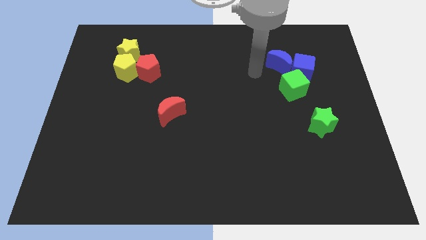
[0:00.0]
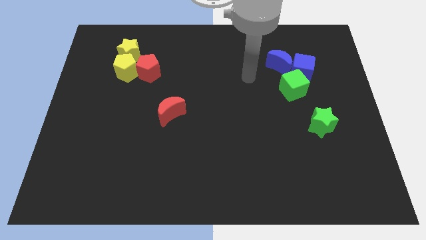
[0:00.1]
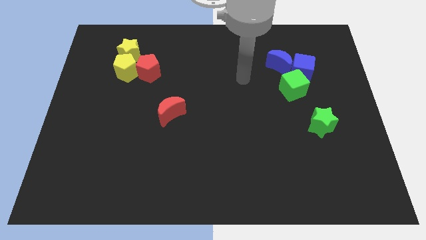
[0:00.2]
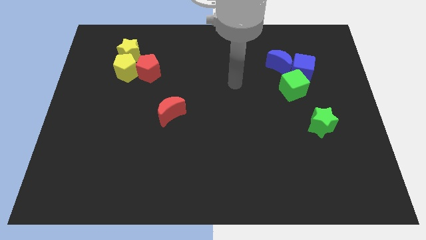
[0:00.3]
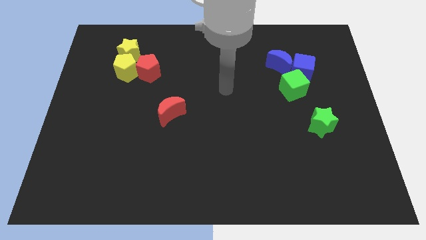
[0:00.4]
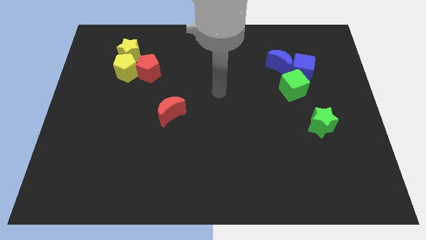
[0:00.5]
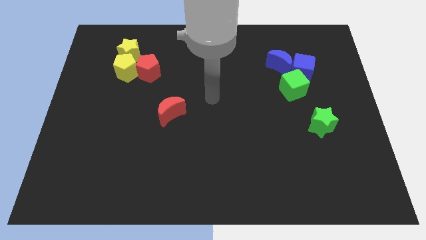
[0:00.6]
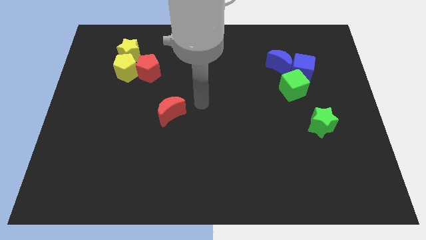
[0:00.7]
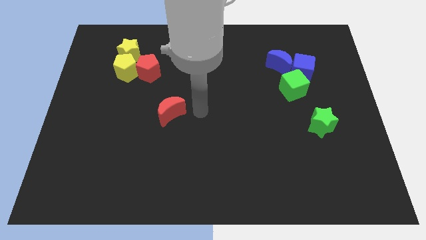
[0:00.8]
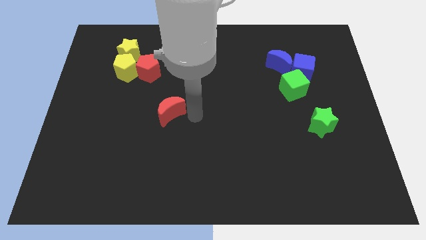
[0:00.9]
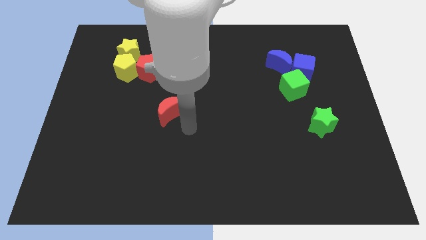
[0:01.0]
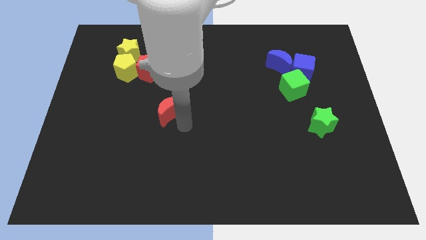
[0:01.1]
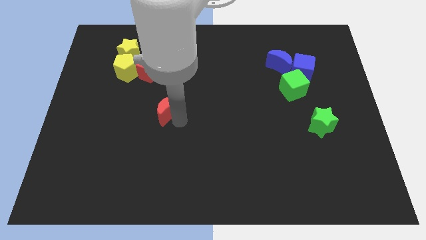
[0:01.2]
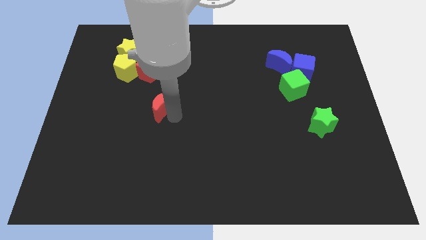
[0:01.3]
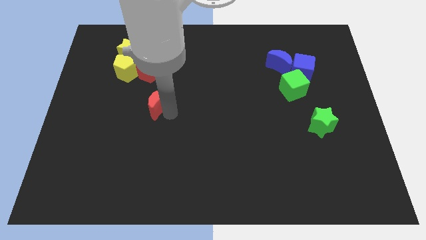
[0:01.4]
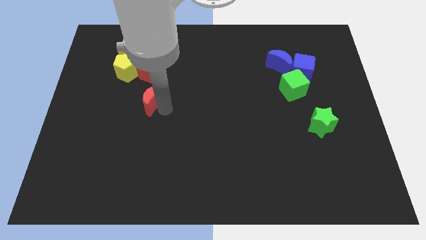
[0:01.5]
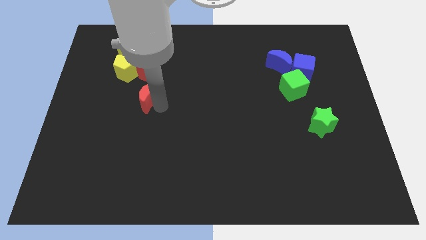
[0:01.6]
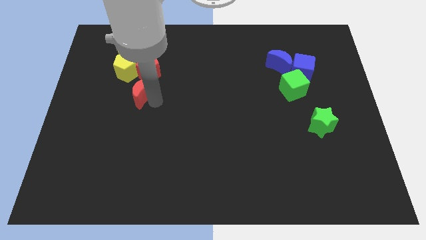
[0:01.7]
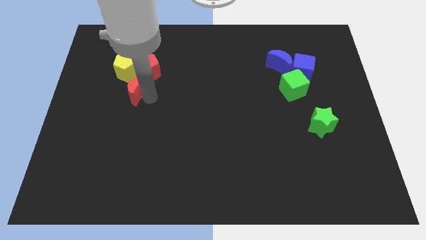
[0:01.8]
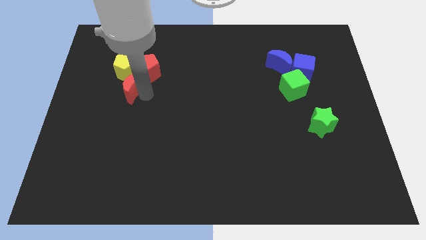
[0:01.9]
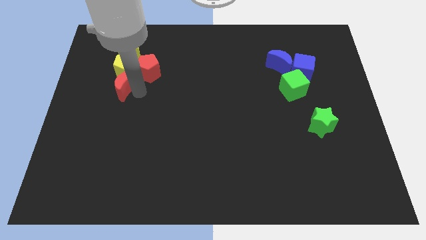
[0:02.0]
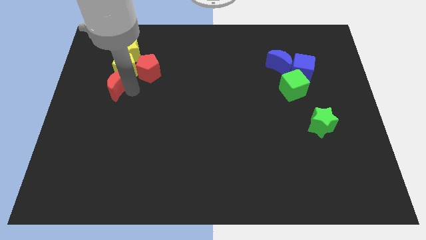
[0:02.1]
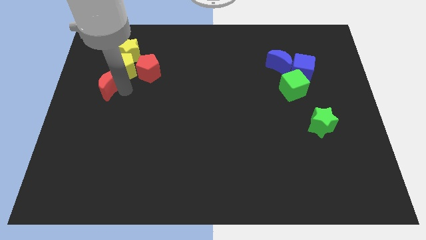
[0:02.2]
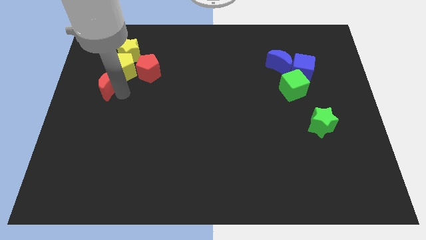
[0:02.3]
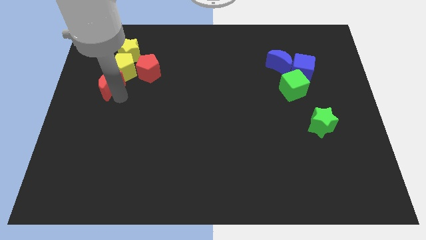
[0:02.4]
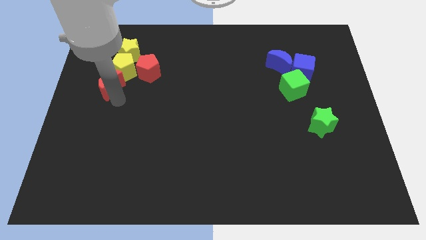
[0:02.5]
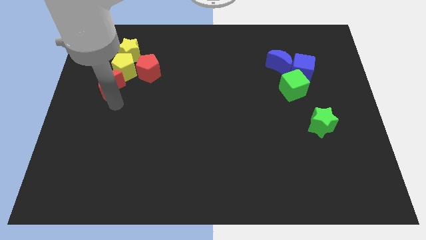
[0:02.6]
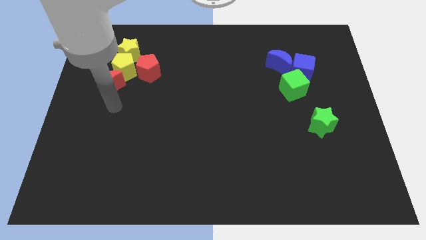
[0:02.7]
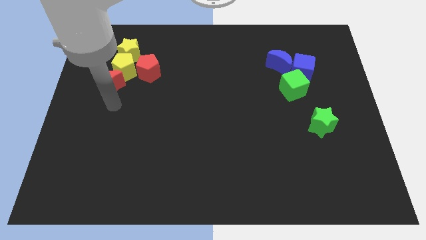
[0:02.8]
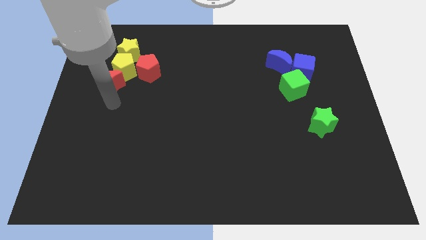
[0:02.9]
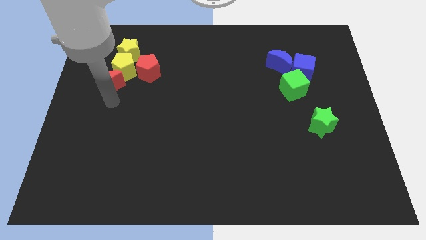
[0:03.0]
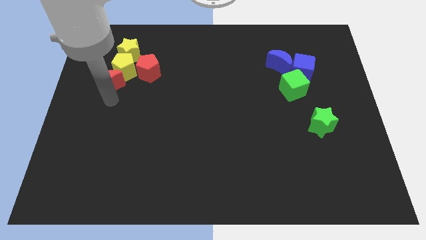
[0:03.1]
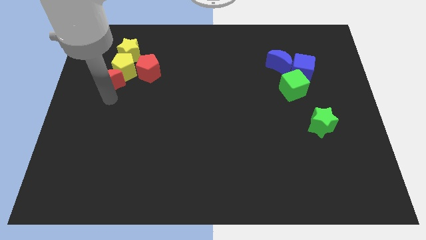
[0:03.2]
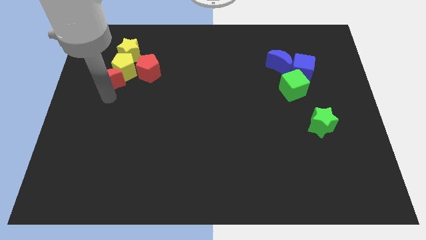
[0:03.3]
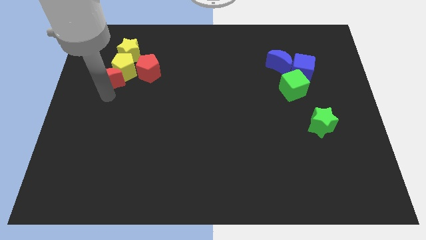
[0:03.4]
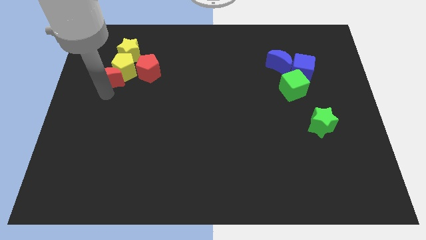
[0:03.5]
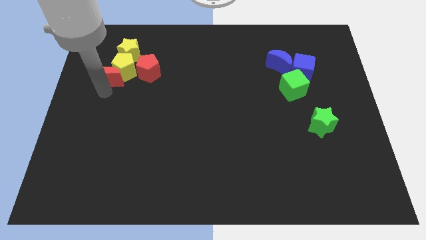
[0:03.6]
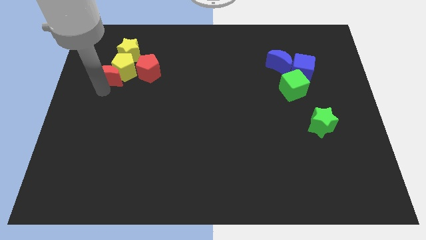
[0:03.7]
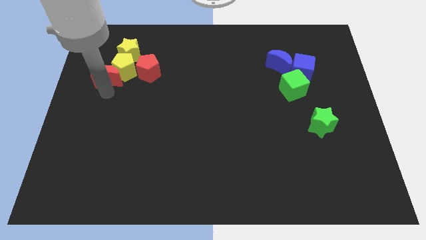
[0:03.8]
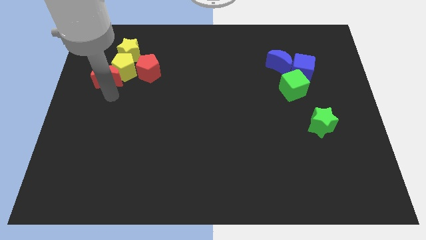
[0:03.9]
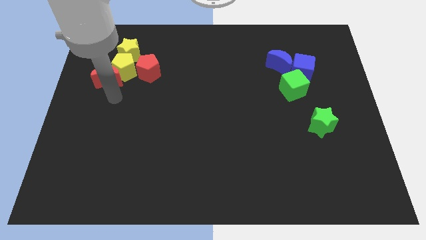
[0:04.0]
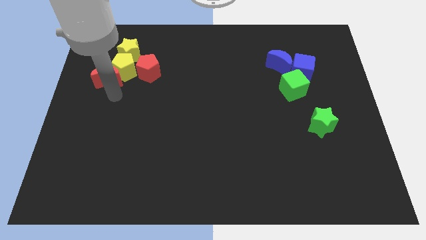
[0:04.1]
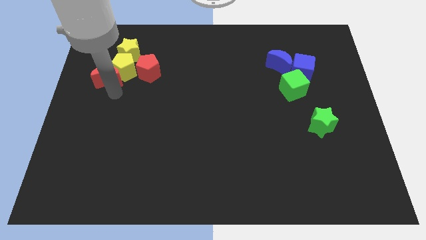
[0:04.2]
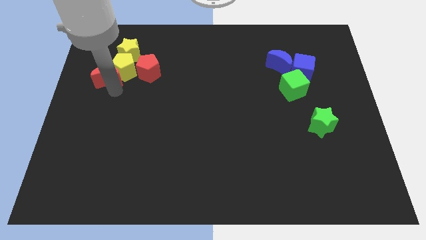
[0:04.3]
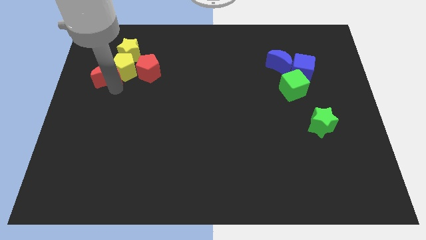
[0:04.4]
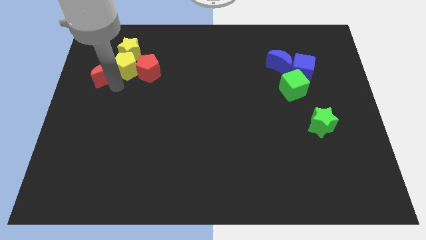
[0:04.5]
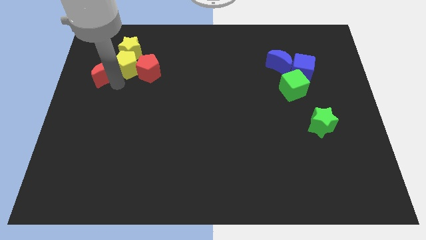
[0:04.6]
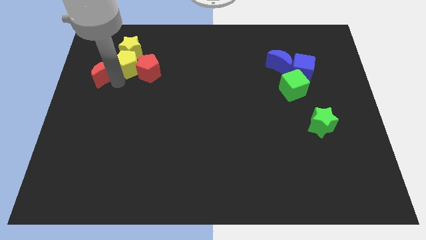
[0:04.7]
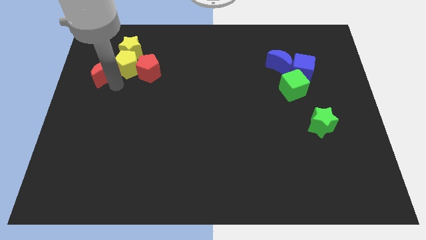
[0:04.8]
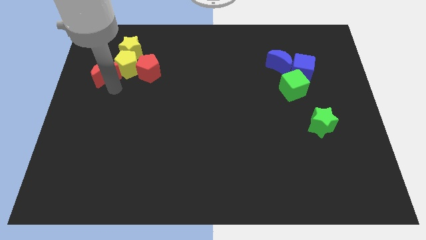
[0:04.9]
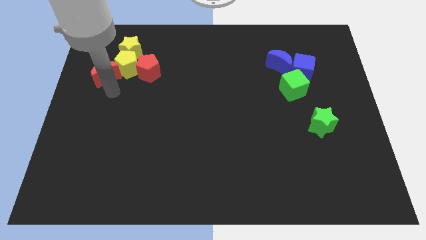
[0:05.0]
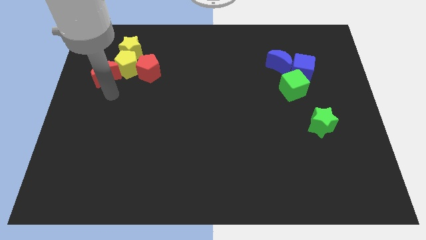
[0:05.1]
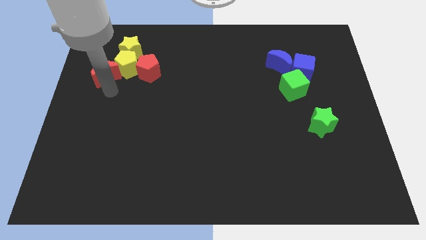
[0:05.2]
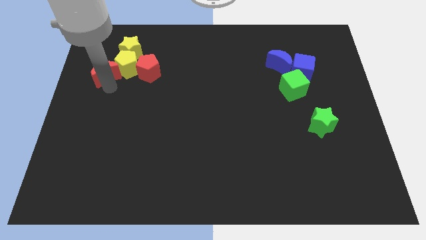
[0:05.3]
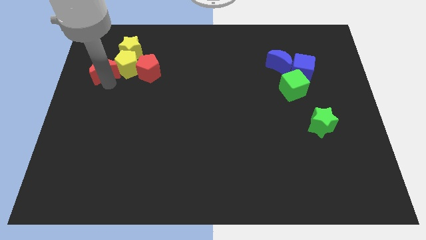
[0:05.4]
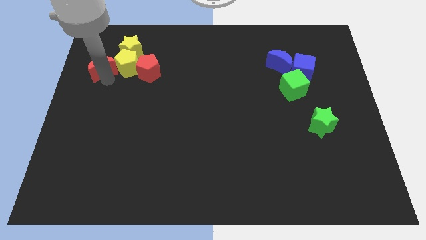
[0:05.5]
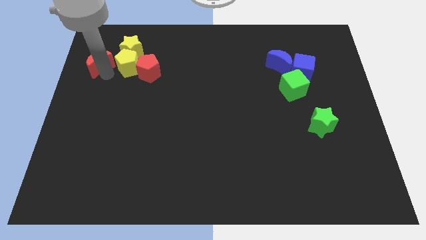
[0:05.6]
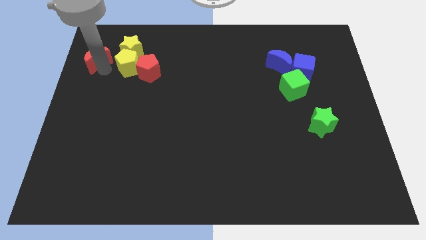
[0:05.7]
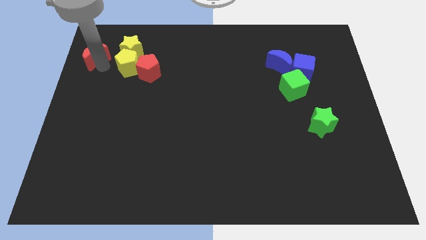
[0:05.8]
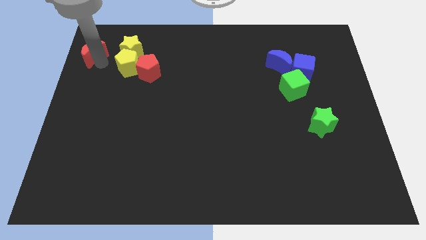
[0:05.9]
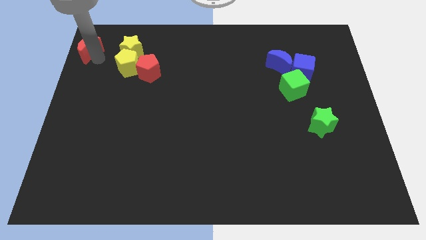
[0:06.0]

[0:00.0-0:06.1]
push the red moon to the top left corner
